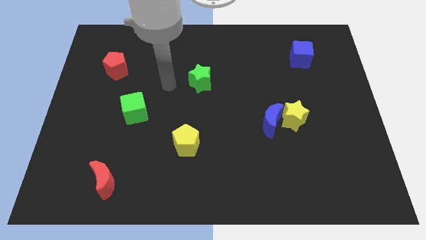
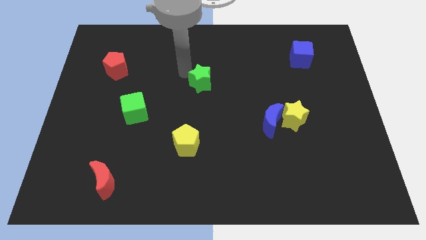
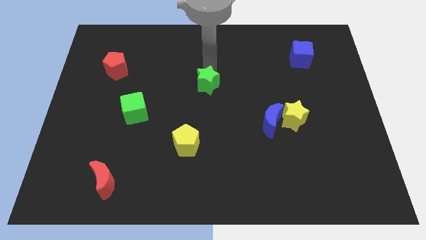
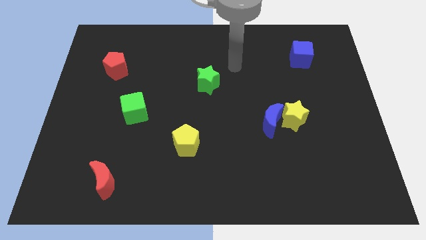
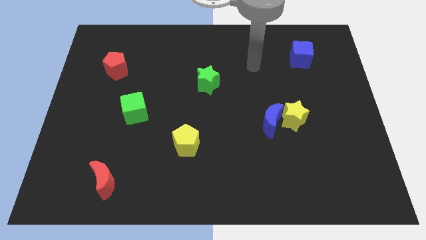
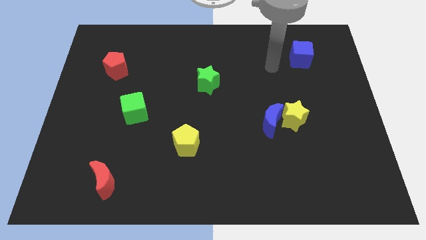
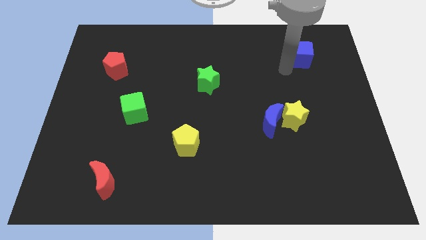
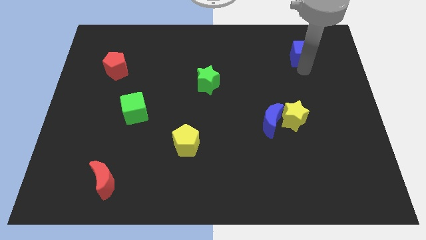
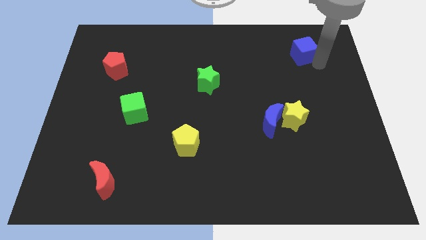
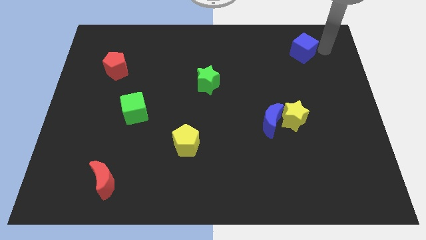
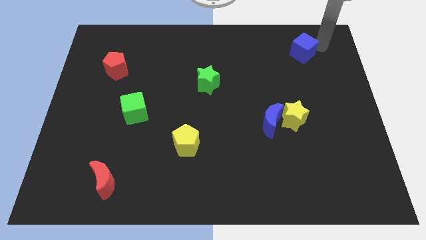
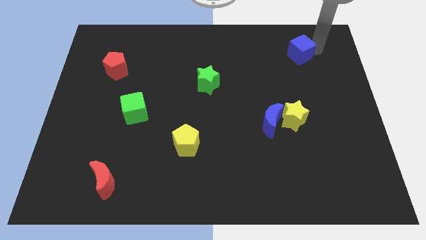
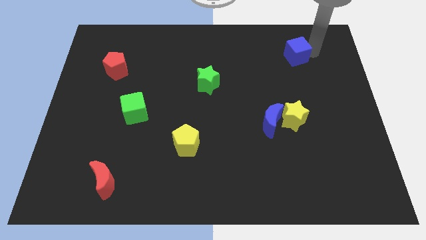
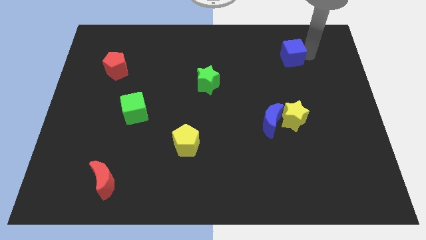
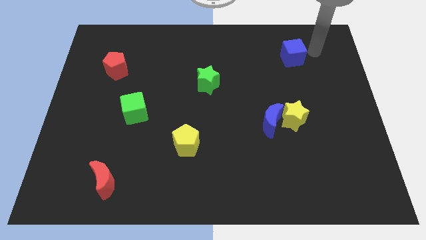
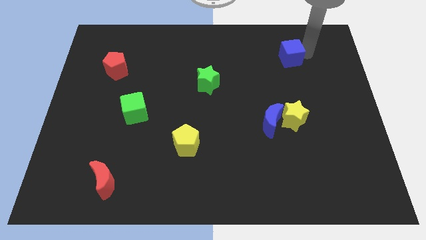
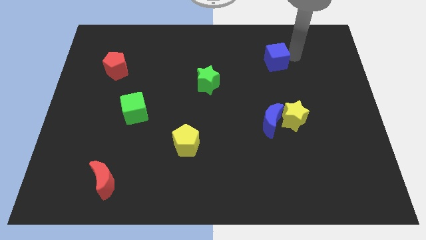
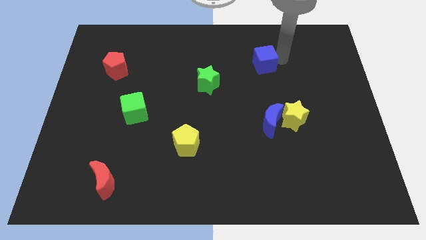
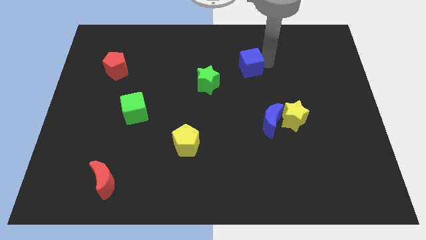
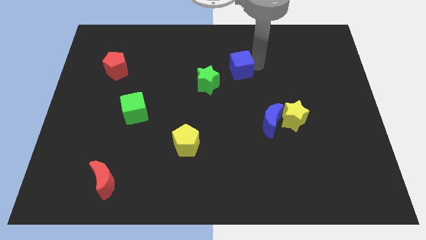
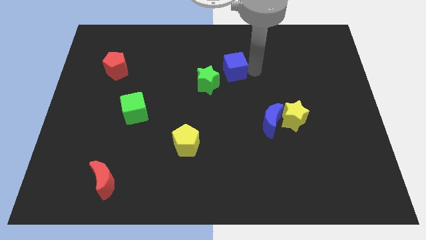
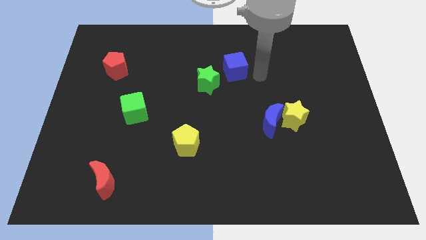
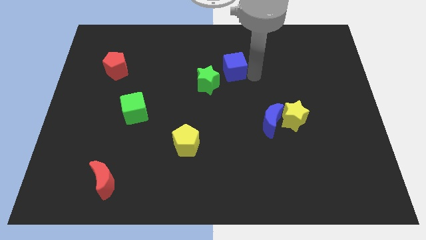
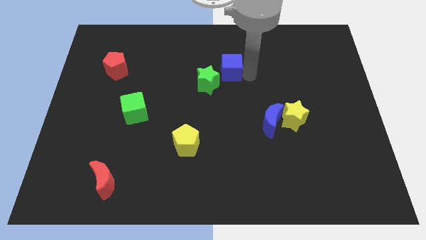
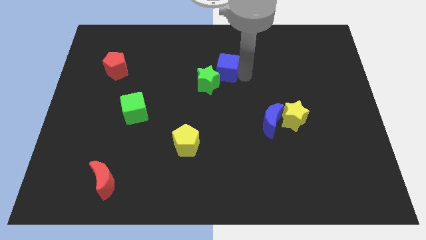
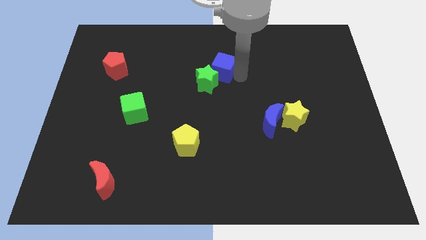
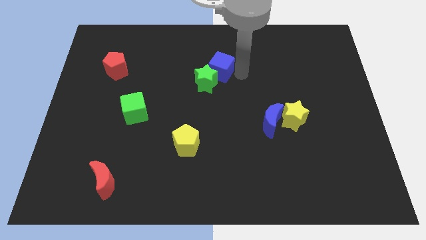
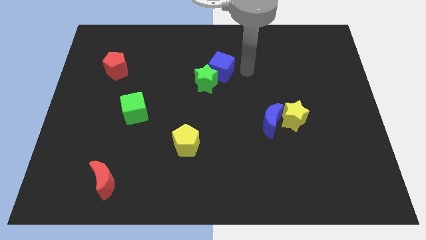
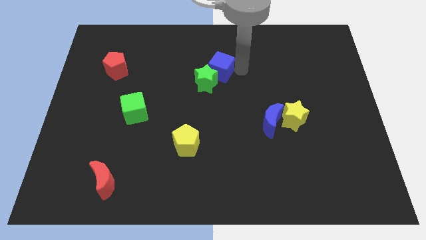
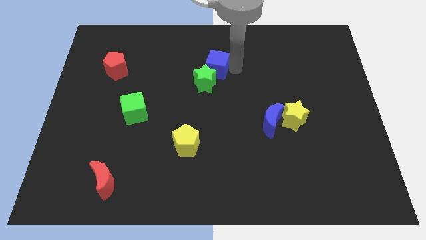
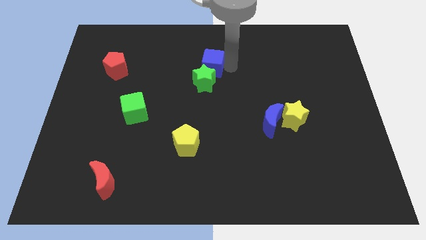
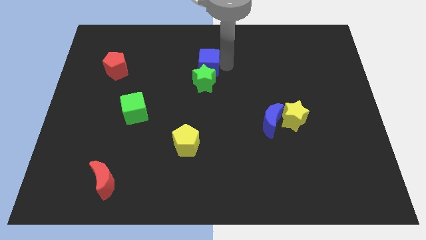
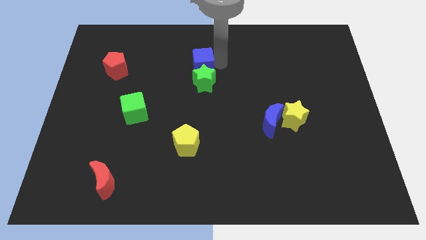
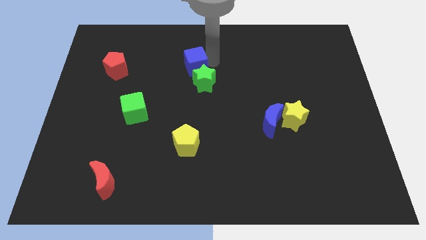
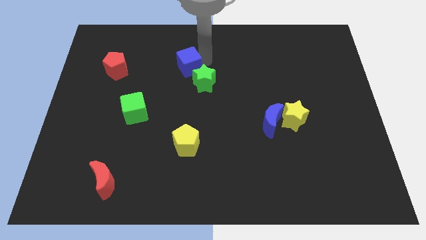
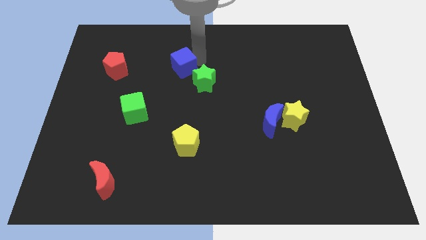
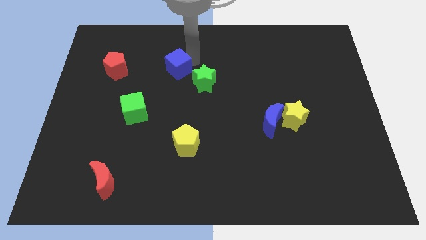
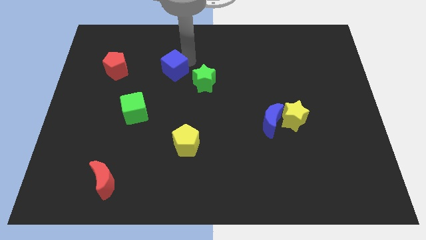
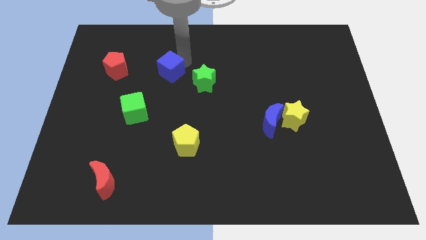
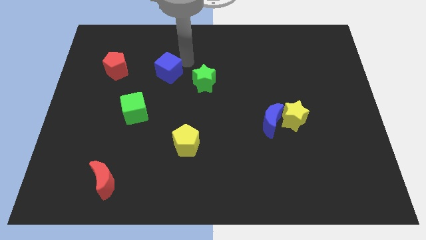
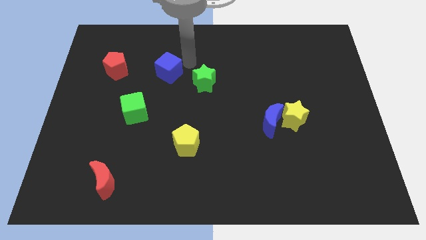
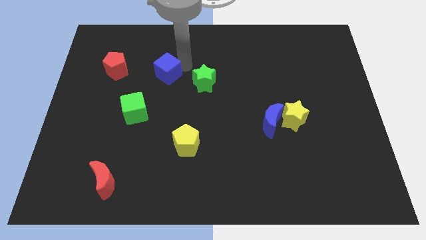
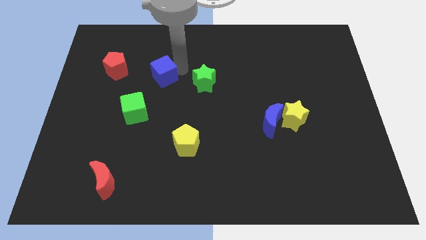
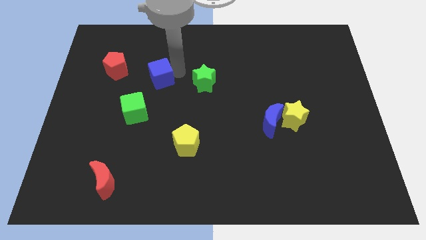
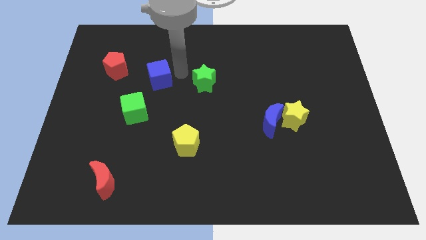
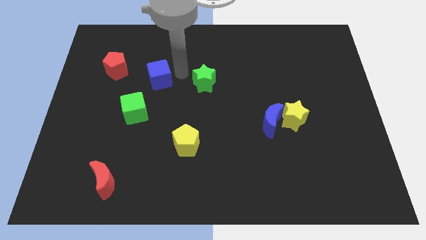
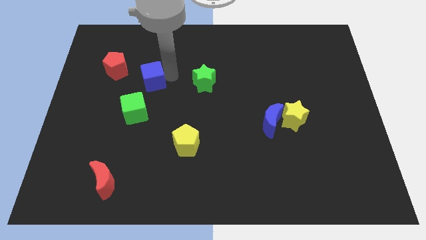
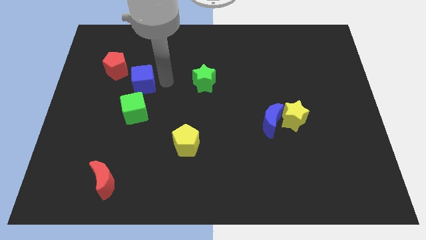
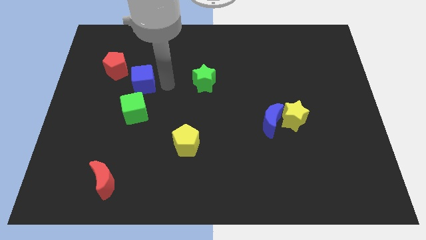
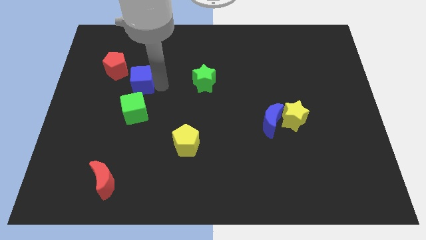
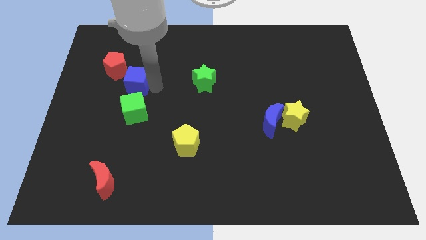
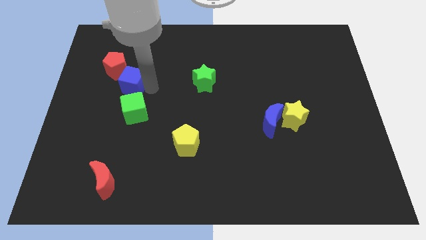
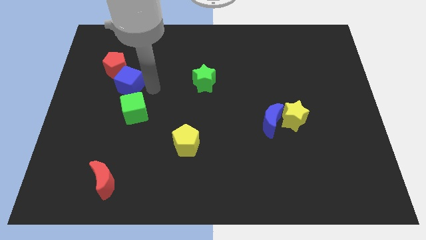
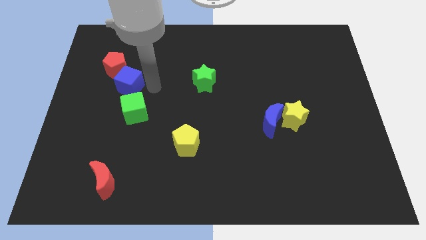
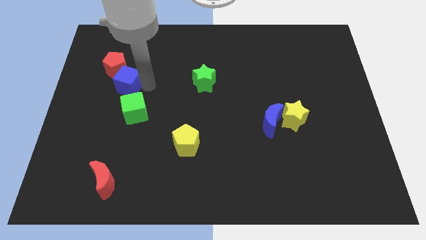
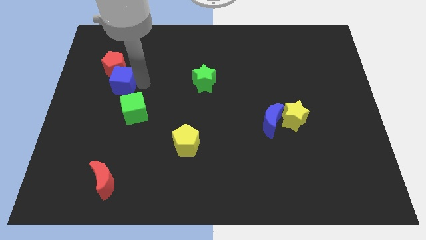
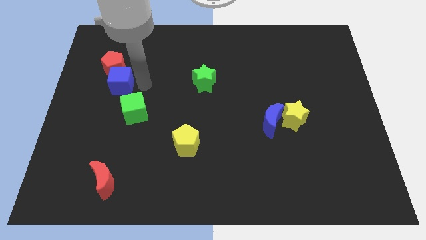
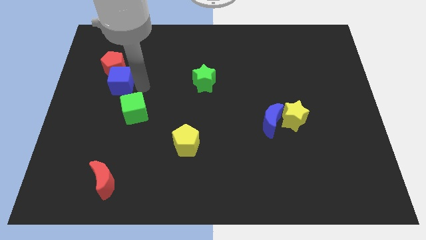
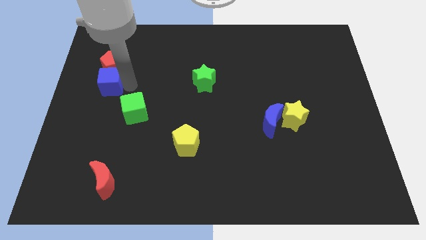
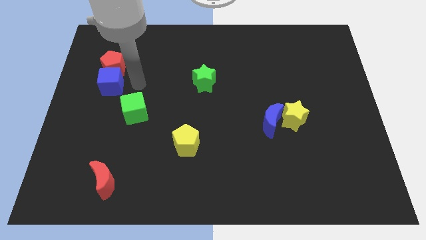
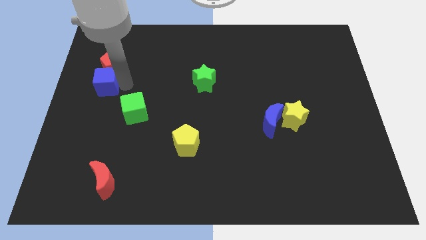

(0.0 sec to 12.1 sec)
put the blue cube to the center left
